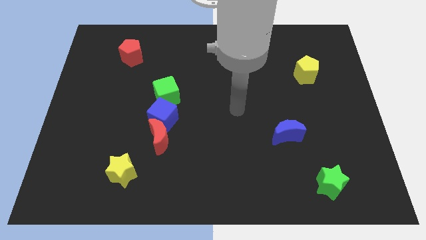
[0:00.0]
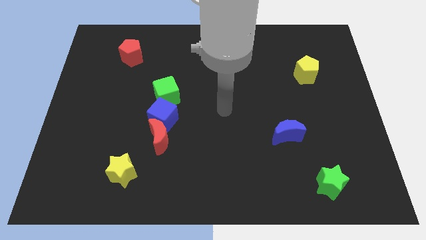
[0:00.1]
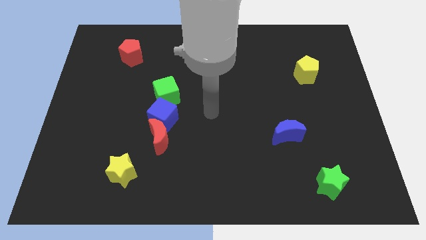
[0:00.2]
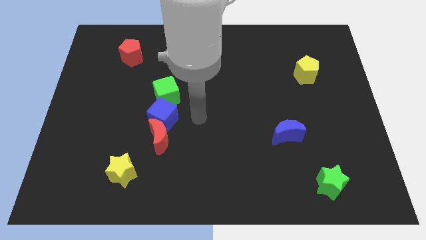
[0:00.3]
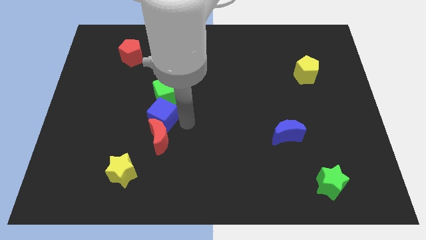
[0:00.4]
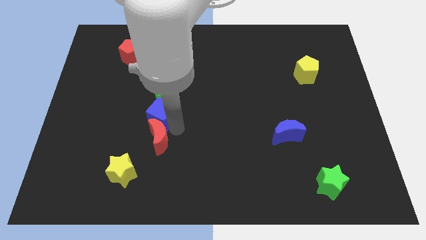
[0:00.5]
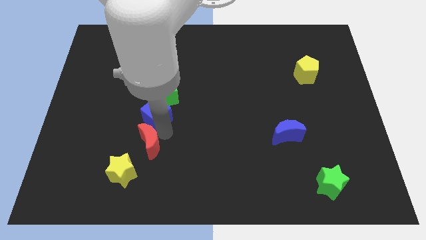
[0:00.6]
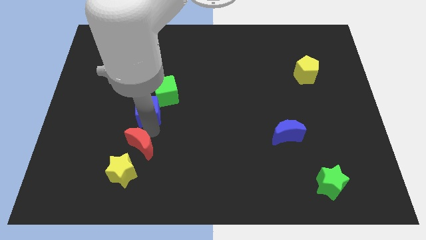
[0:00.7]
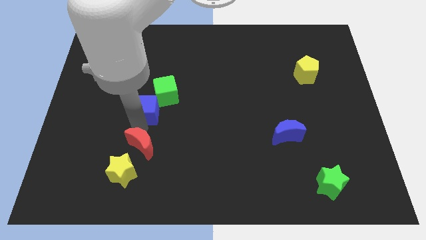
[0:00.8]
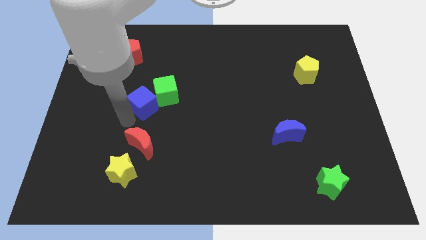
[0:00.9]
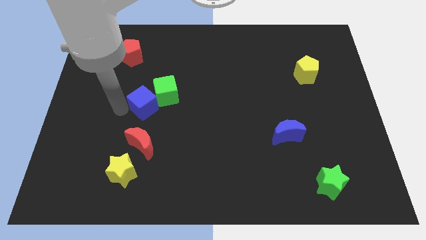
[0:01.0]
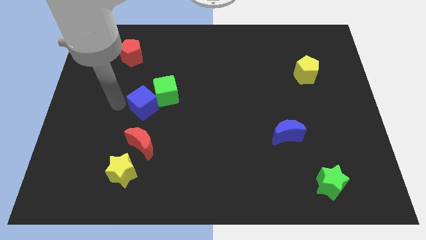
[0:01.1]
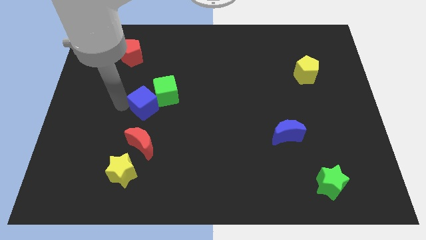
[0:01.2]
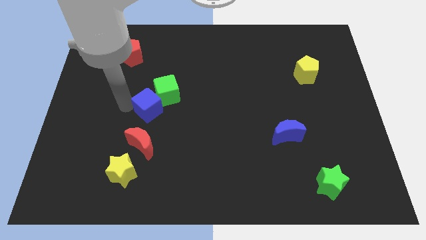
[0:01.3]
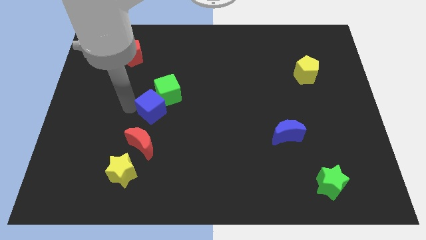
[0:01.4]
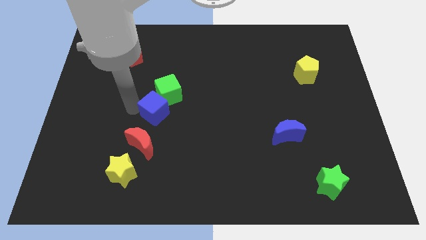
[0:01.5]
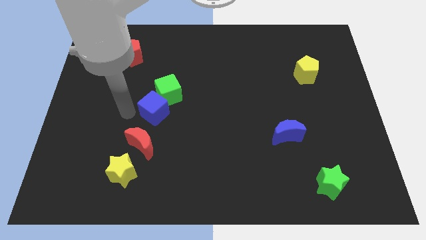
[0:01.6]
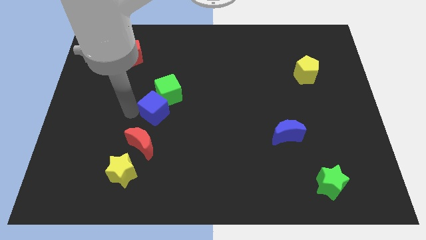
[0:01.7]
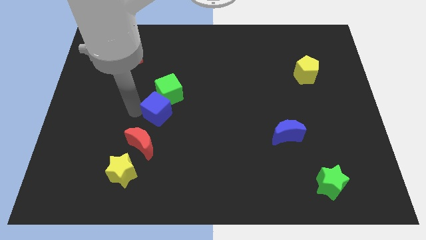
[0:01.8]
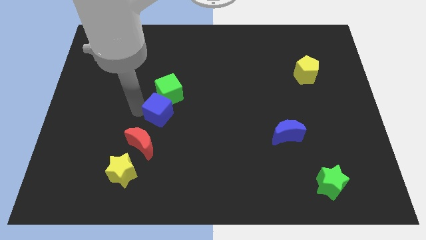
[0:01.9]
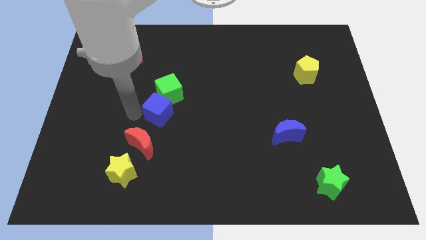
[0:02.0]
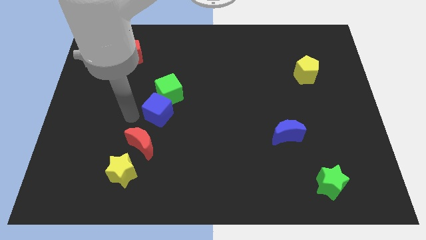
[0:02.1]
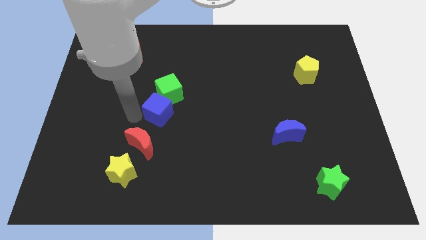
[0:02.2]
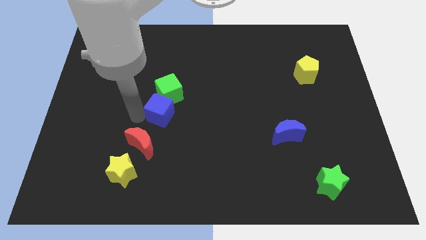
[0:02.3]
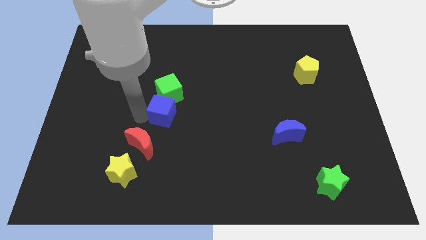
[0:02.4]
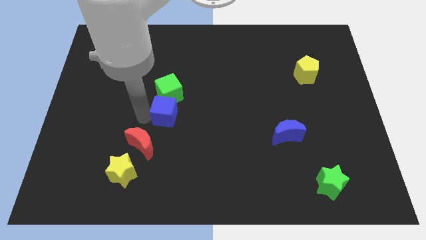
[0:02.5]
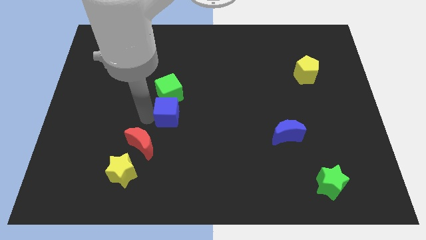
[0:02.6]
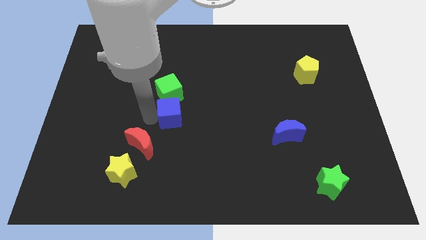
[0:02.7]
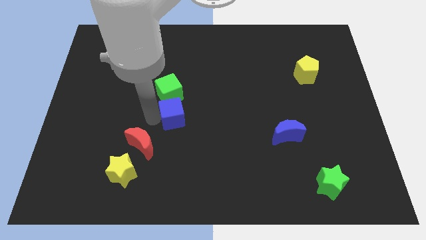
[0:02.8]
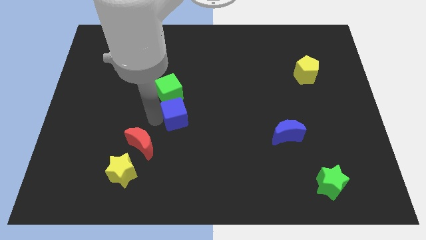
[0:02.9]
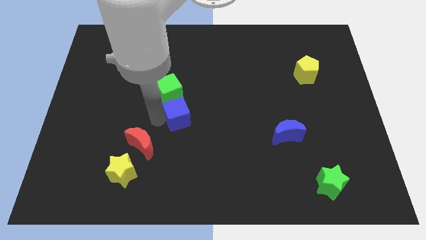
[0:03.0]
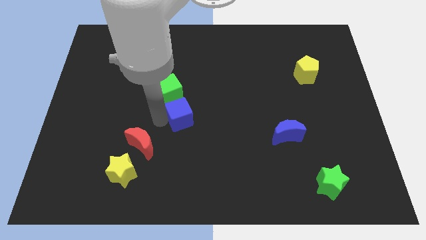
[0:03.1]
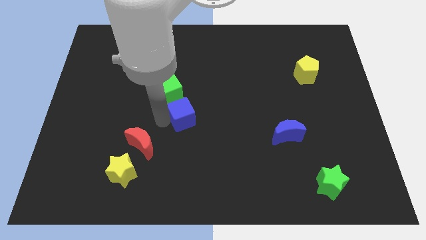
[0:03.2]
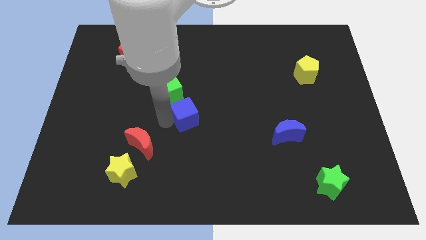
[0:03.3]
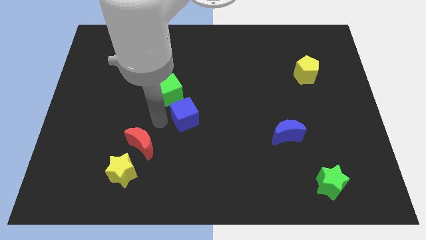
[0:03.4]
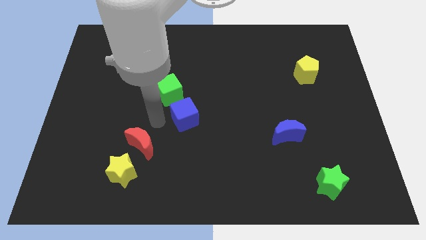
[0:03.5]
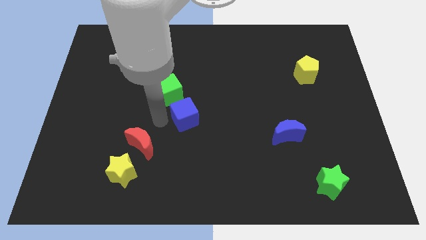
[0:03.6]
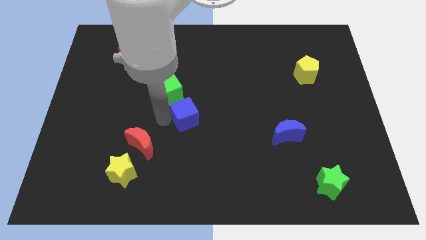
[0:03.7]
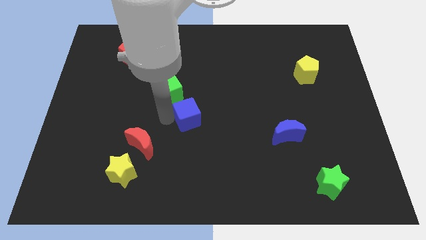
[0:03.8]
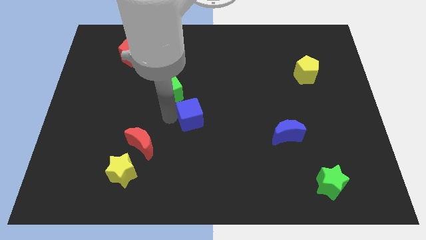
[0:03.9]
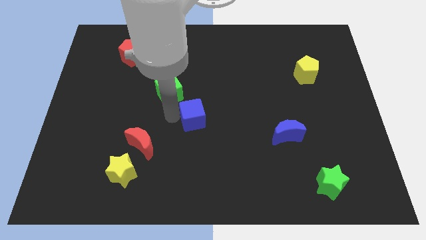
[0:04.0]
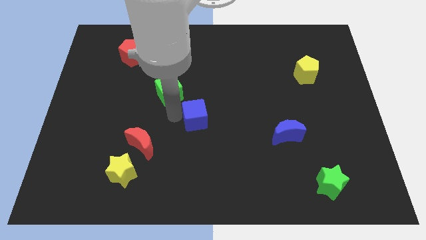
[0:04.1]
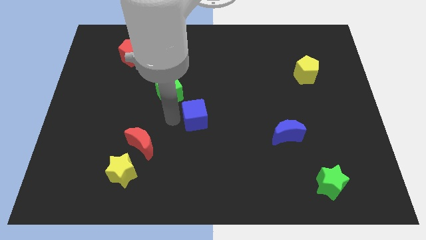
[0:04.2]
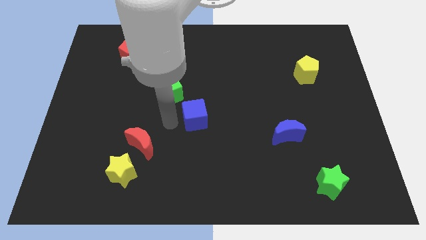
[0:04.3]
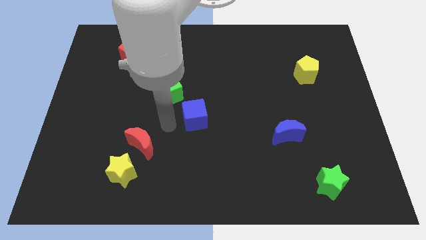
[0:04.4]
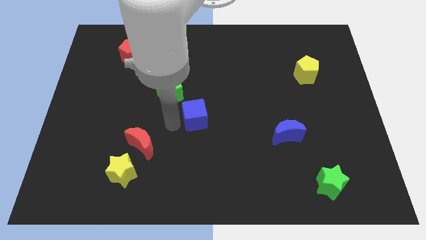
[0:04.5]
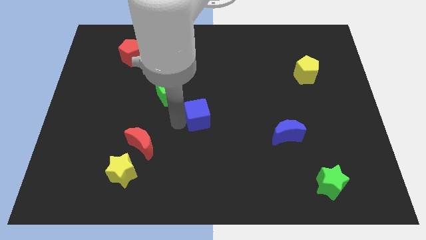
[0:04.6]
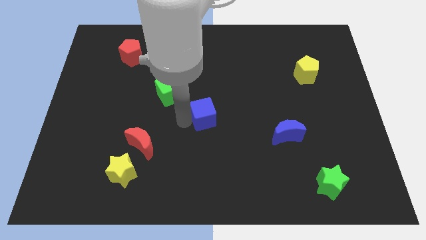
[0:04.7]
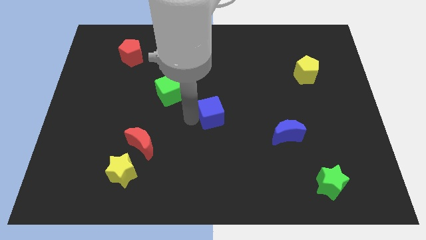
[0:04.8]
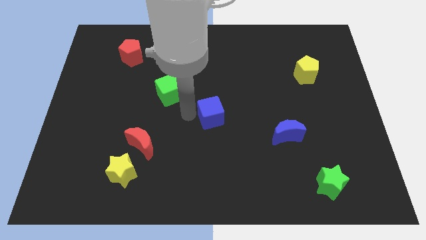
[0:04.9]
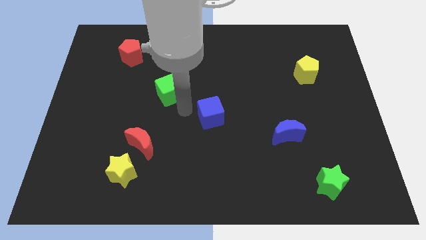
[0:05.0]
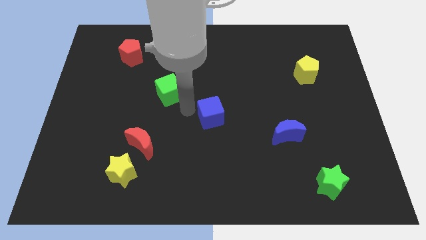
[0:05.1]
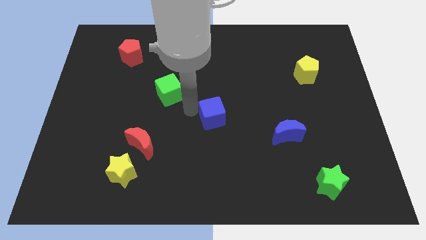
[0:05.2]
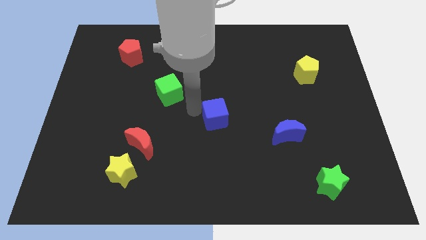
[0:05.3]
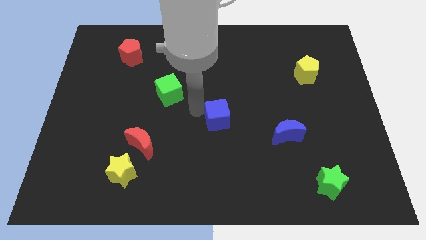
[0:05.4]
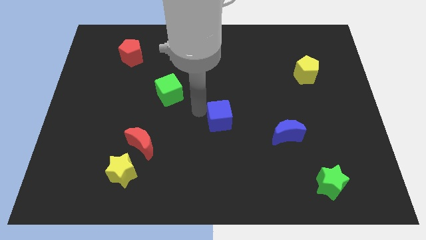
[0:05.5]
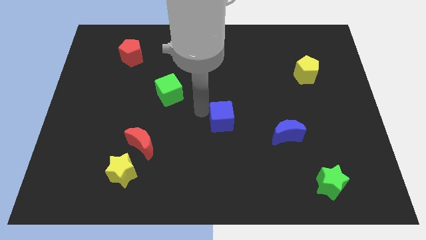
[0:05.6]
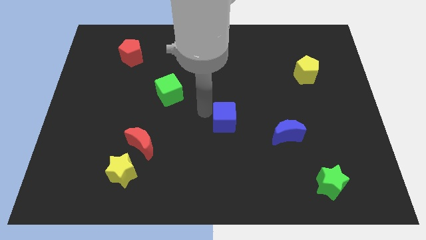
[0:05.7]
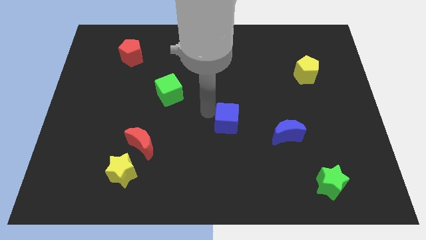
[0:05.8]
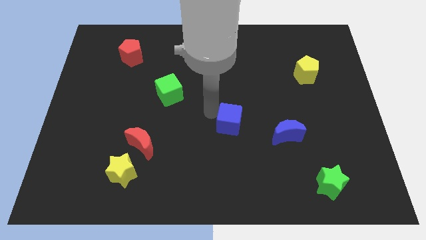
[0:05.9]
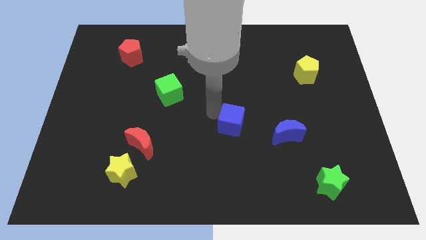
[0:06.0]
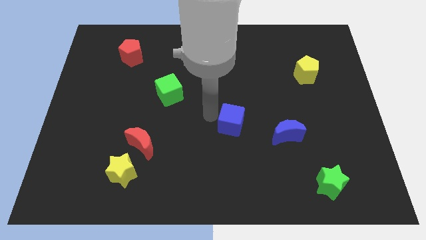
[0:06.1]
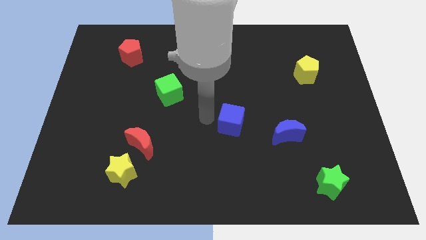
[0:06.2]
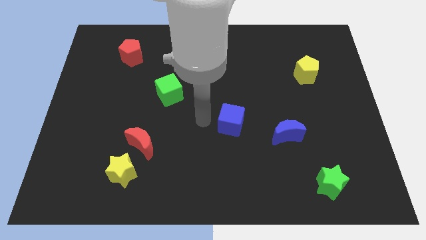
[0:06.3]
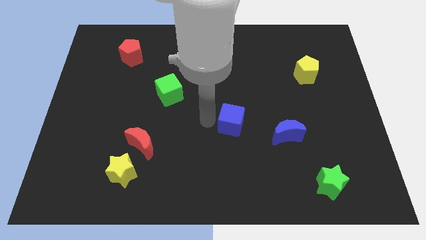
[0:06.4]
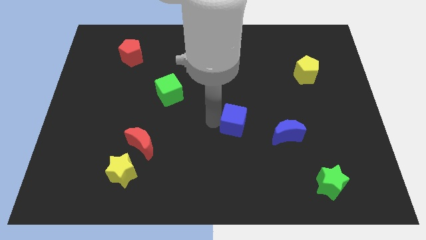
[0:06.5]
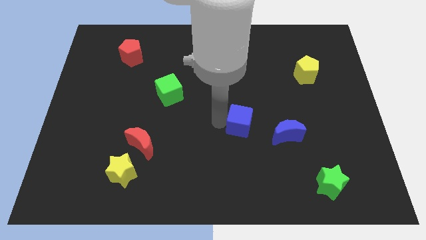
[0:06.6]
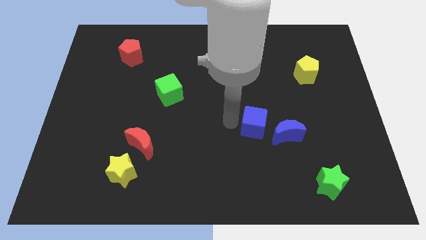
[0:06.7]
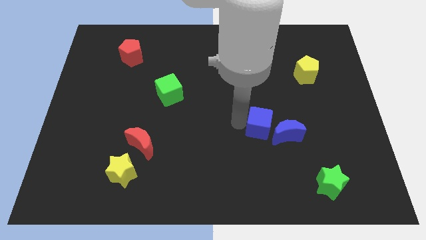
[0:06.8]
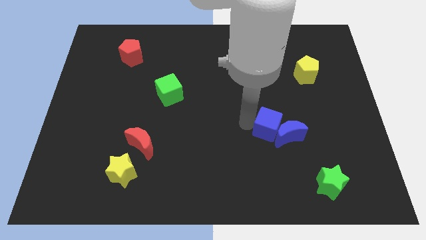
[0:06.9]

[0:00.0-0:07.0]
push the blue cube next to the blue moon

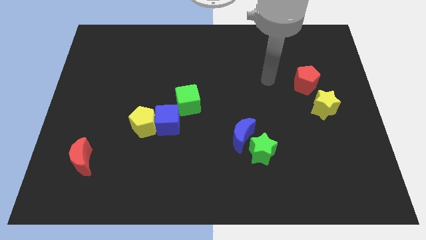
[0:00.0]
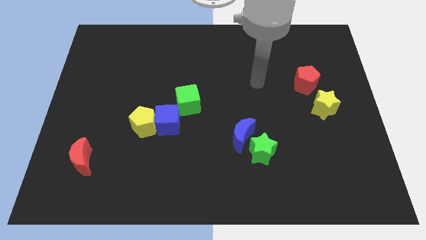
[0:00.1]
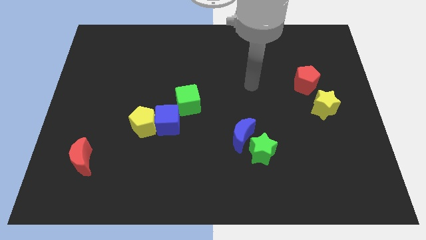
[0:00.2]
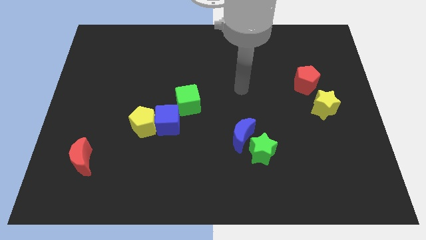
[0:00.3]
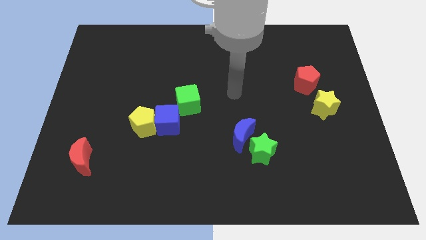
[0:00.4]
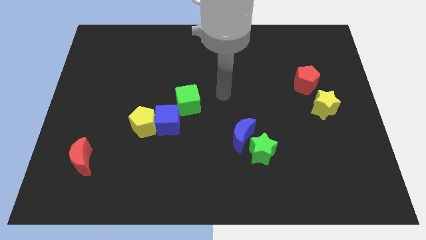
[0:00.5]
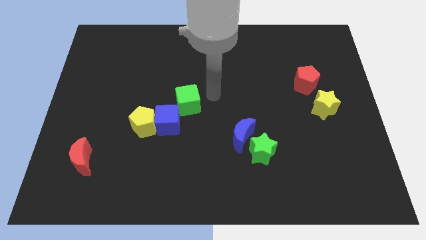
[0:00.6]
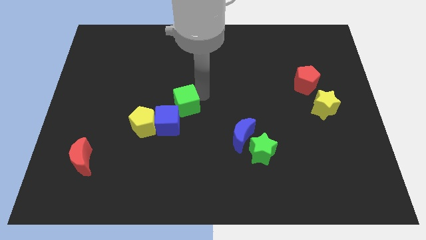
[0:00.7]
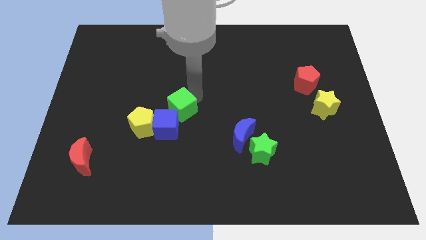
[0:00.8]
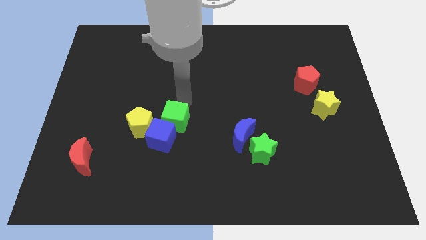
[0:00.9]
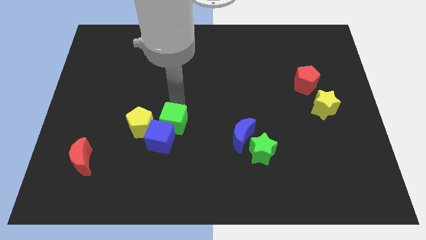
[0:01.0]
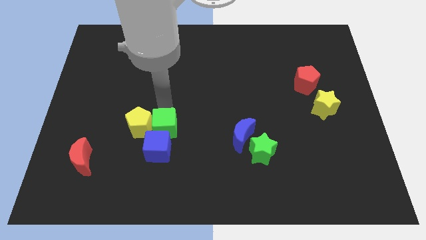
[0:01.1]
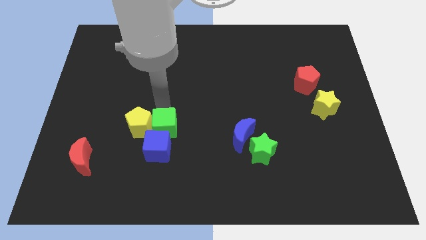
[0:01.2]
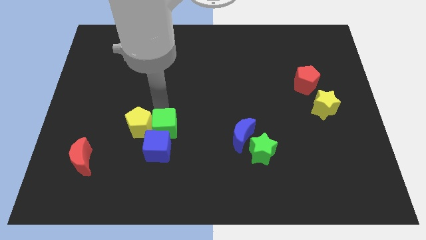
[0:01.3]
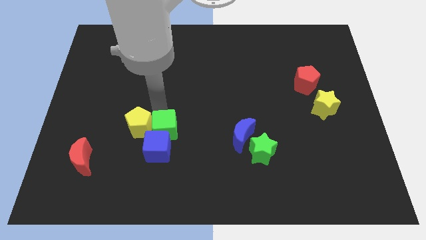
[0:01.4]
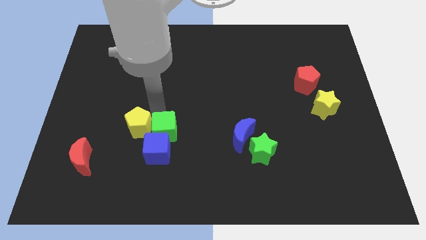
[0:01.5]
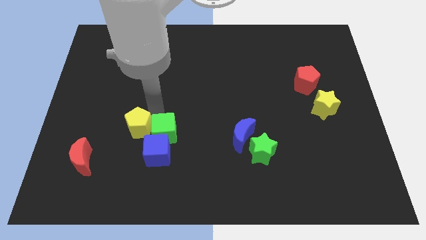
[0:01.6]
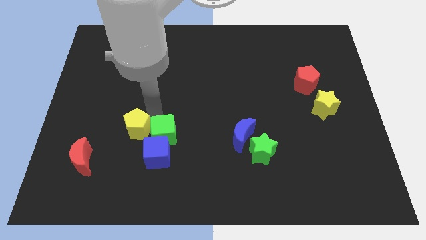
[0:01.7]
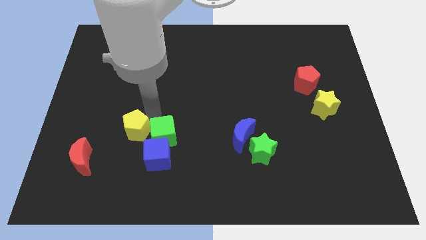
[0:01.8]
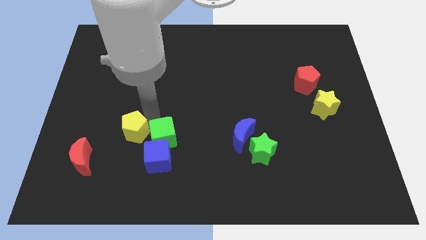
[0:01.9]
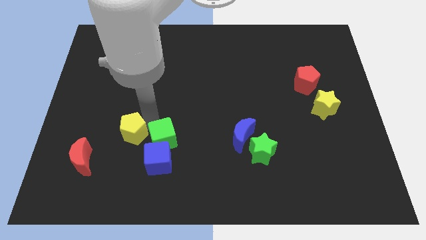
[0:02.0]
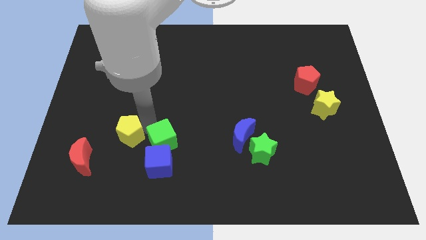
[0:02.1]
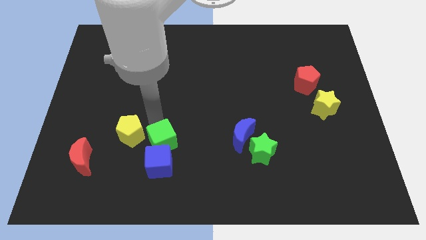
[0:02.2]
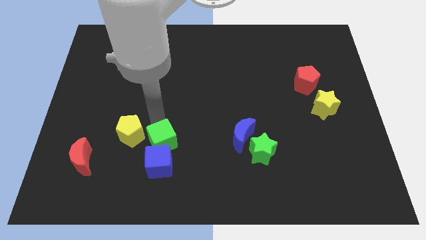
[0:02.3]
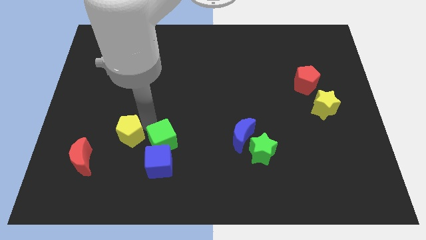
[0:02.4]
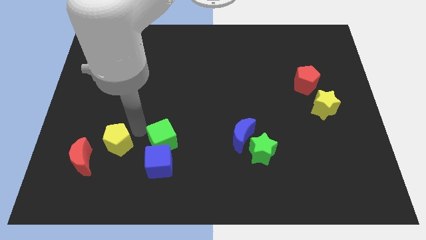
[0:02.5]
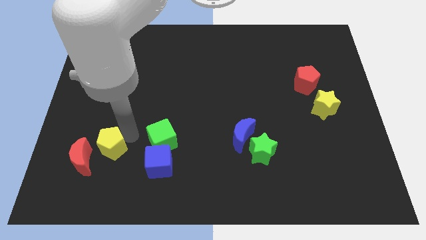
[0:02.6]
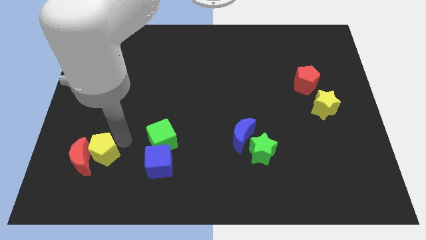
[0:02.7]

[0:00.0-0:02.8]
push the yellow pentagon close to the red moon
